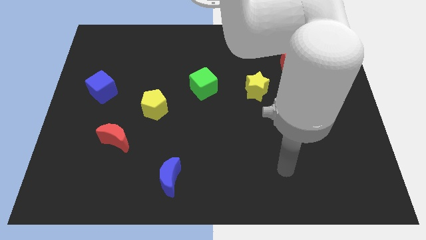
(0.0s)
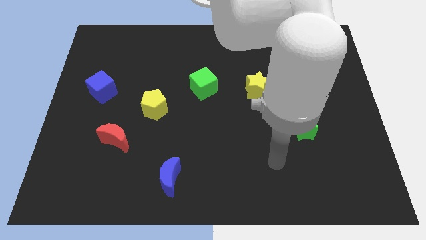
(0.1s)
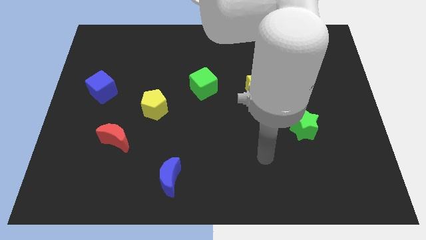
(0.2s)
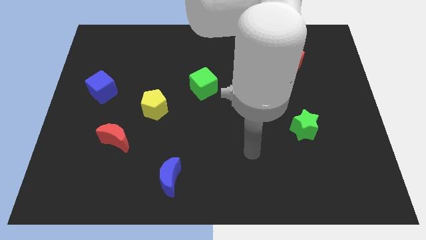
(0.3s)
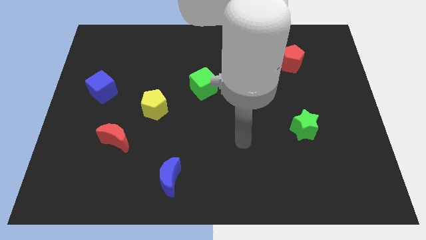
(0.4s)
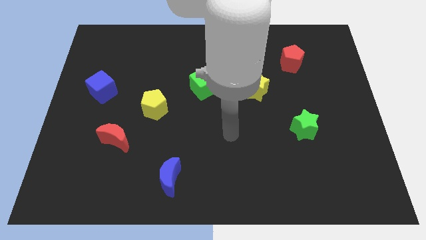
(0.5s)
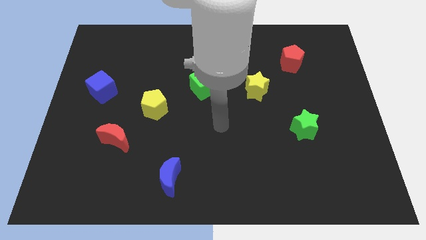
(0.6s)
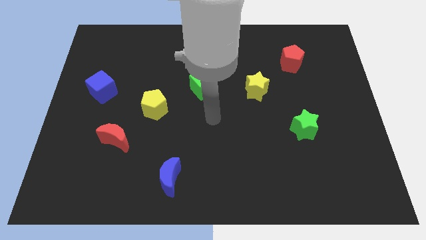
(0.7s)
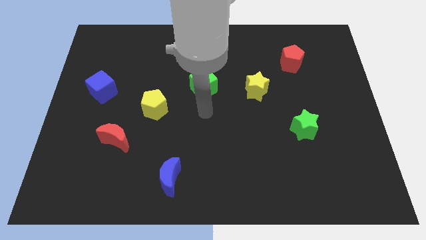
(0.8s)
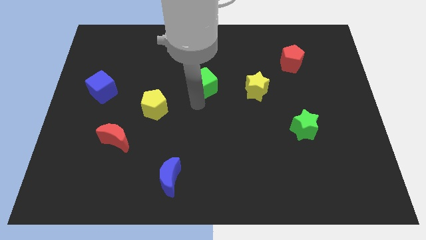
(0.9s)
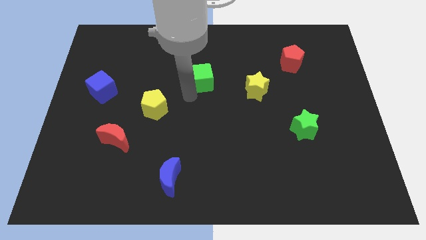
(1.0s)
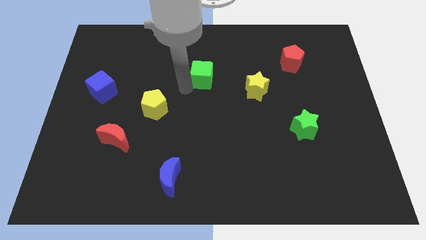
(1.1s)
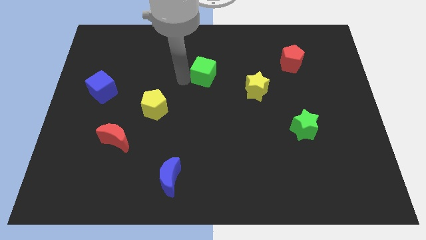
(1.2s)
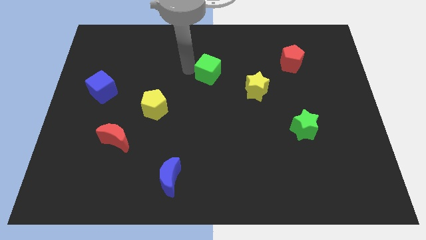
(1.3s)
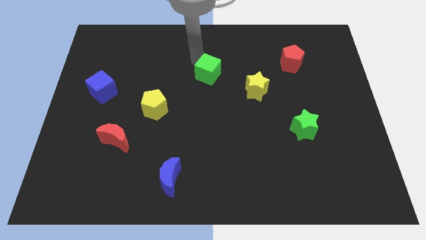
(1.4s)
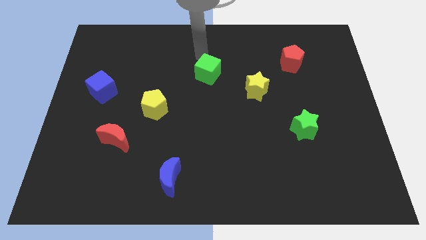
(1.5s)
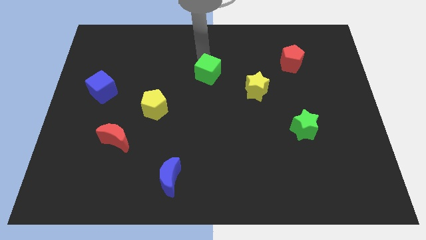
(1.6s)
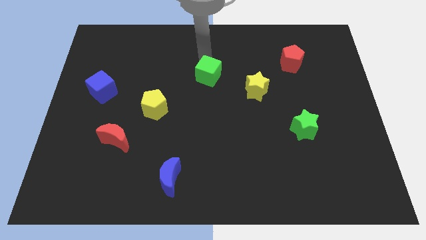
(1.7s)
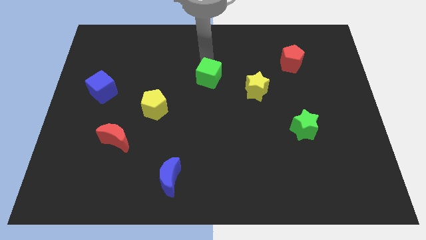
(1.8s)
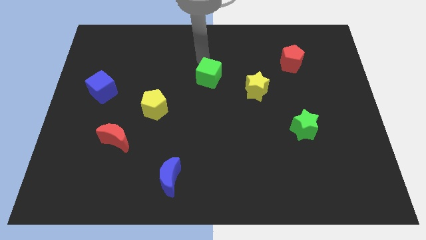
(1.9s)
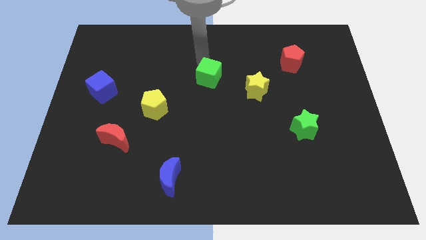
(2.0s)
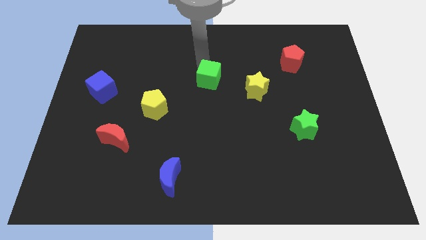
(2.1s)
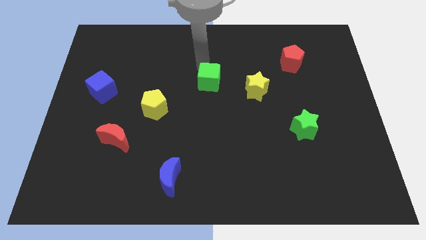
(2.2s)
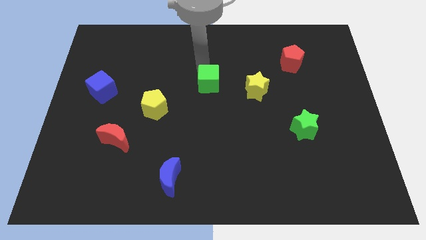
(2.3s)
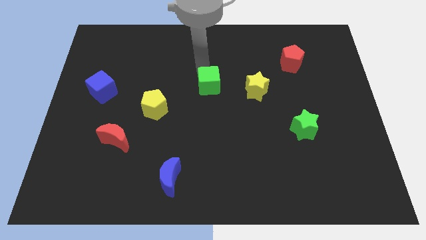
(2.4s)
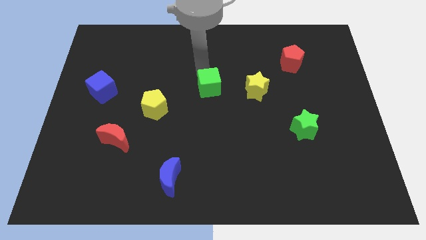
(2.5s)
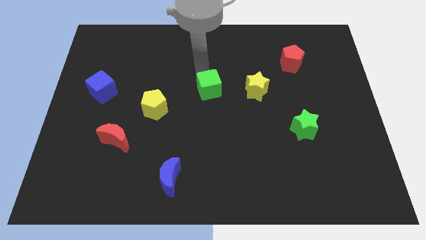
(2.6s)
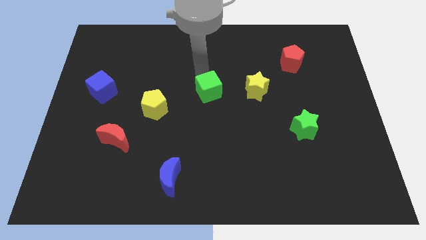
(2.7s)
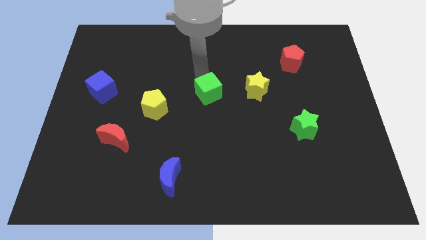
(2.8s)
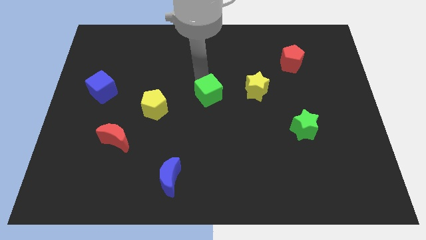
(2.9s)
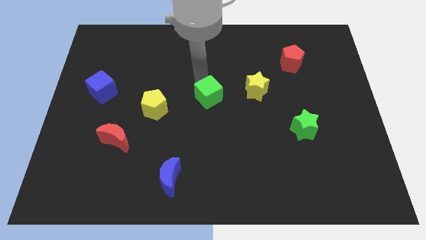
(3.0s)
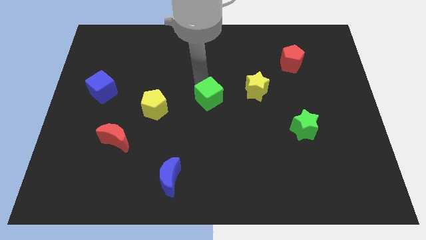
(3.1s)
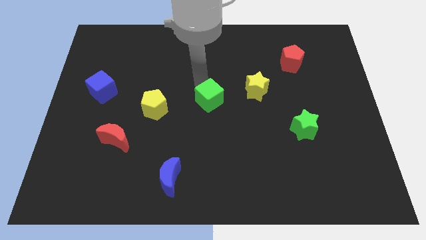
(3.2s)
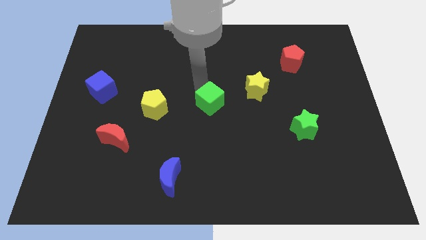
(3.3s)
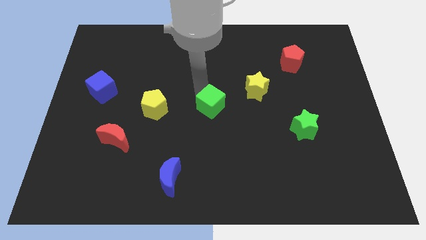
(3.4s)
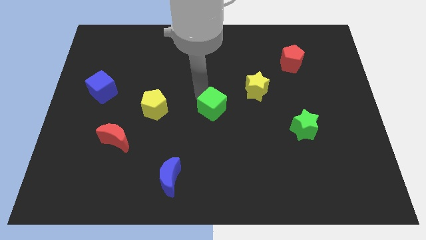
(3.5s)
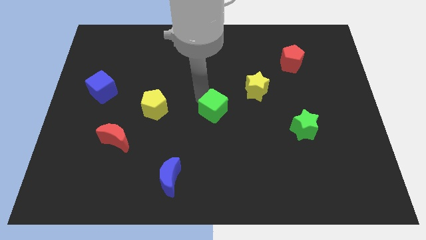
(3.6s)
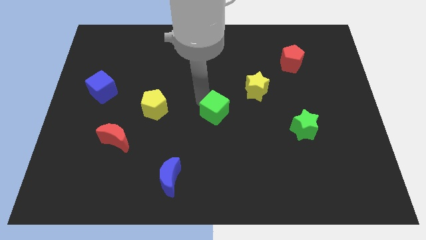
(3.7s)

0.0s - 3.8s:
move the green cube diagonally down and right a little

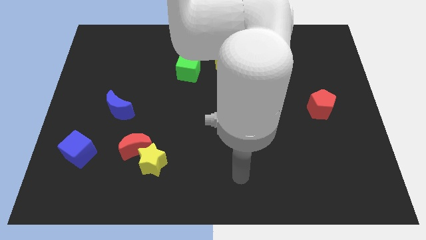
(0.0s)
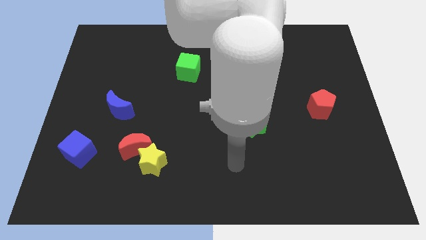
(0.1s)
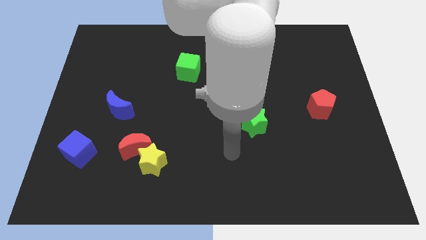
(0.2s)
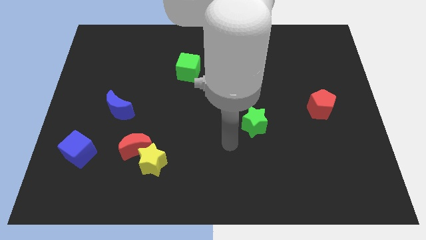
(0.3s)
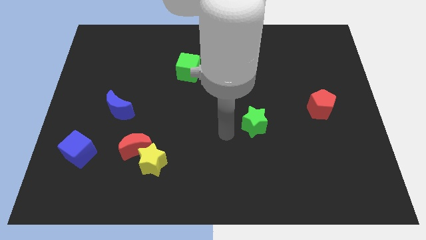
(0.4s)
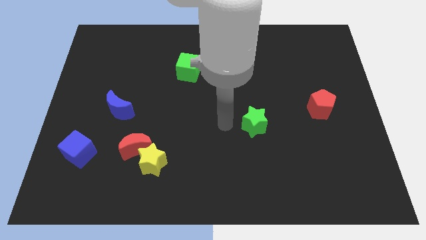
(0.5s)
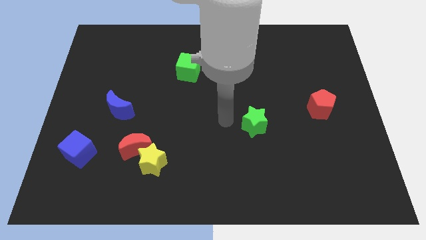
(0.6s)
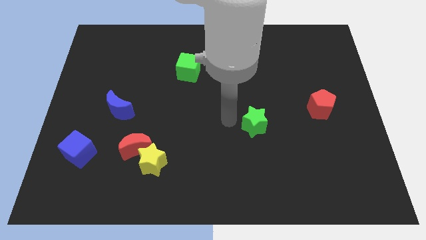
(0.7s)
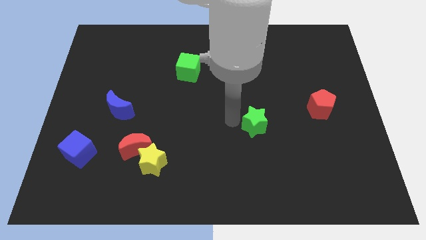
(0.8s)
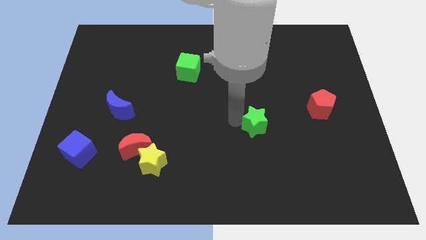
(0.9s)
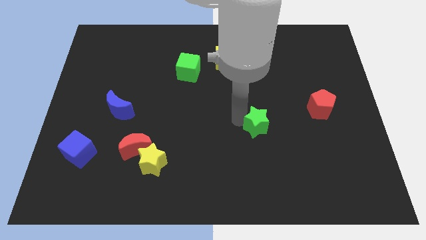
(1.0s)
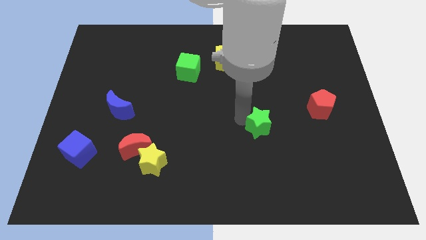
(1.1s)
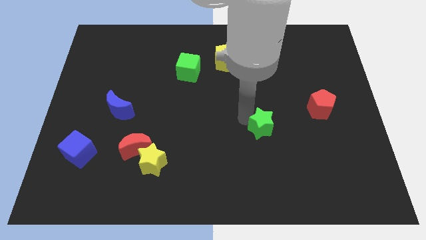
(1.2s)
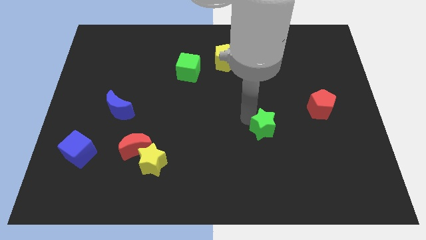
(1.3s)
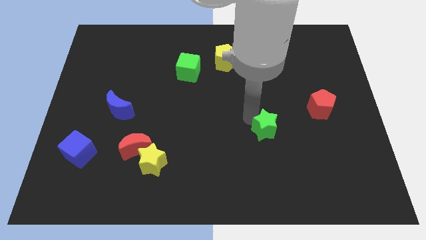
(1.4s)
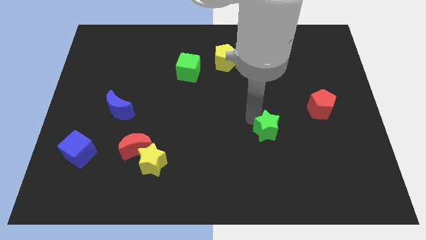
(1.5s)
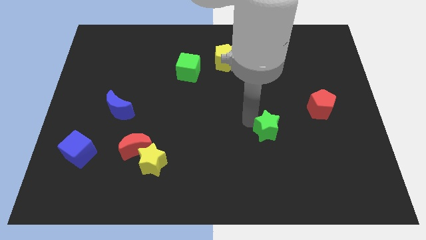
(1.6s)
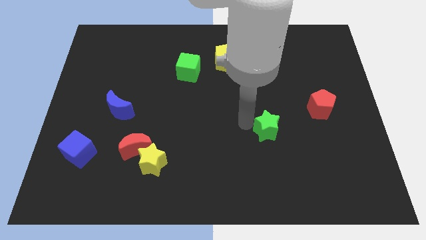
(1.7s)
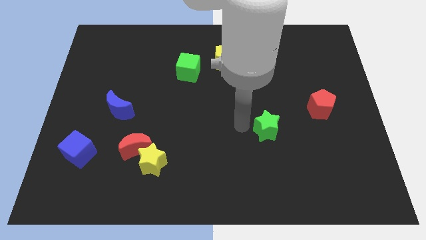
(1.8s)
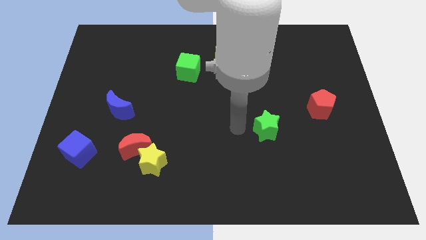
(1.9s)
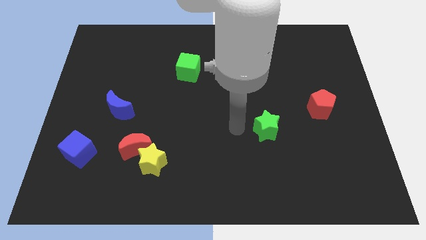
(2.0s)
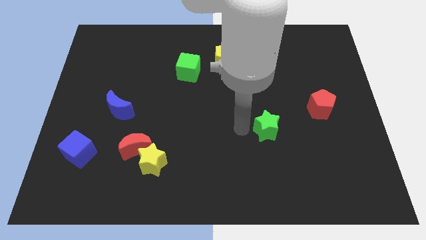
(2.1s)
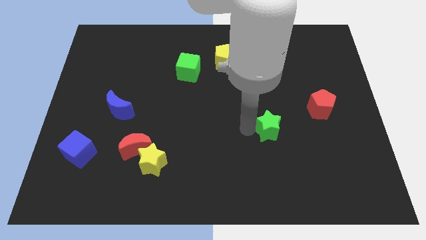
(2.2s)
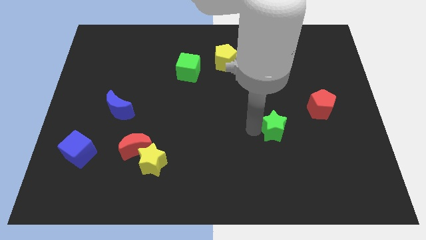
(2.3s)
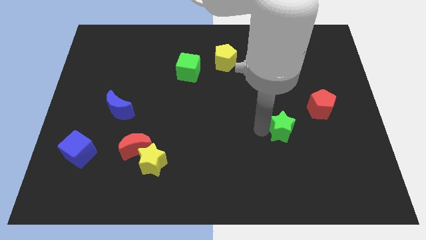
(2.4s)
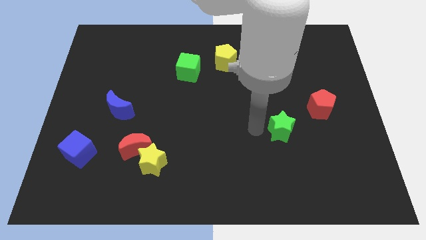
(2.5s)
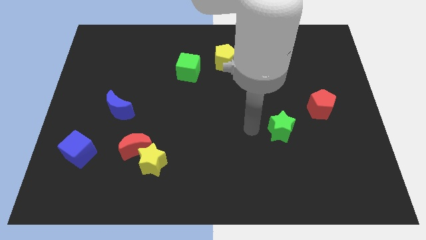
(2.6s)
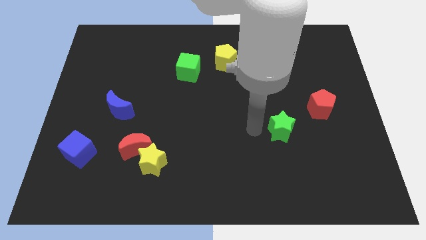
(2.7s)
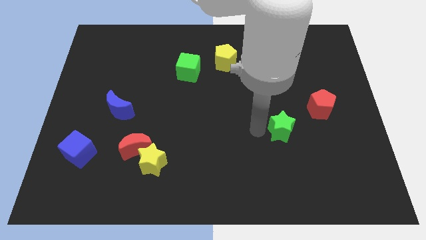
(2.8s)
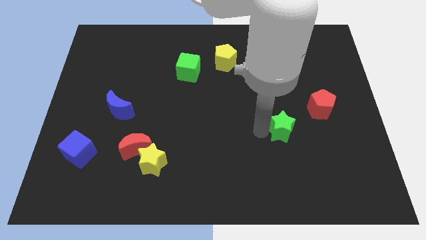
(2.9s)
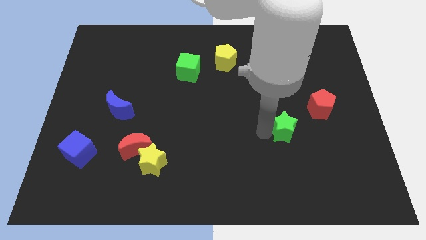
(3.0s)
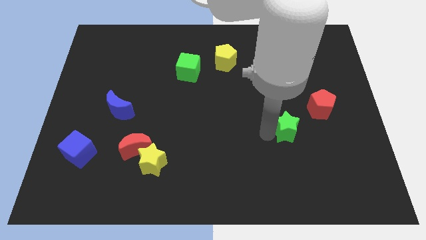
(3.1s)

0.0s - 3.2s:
slightly slide the green star to the right

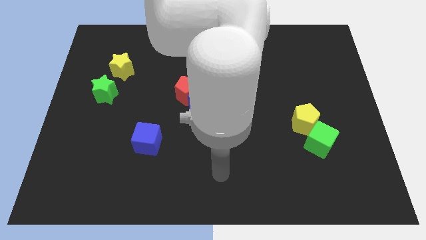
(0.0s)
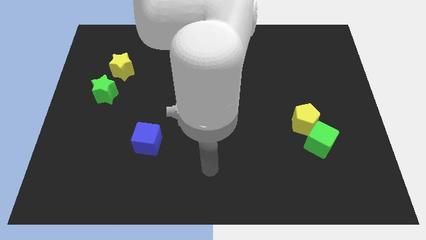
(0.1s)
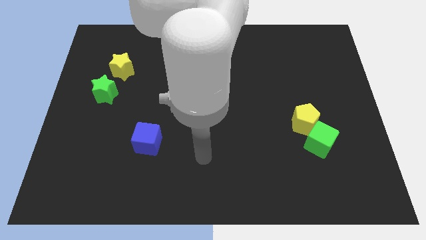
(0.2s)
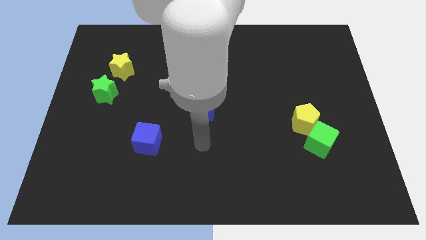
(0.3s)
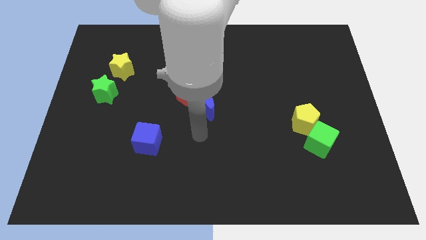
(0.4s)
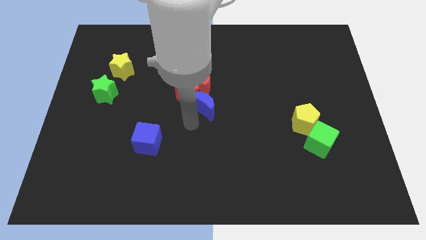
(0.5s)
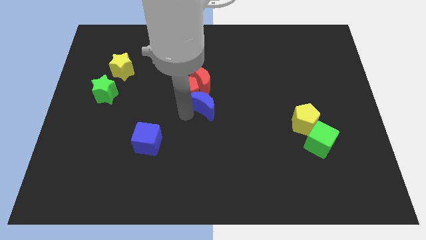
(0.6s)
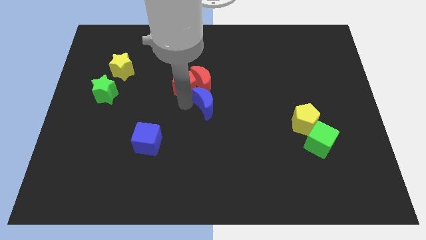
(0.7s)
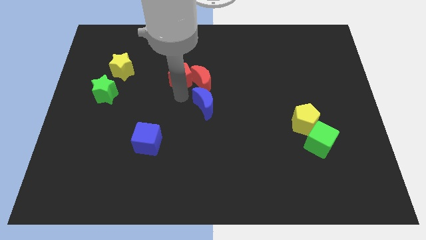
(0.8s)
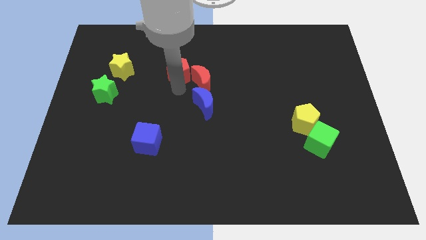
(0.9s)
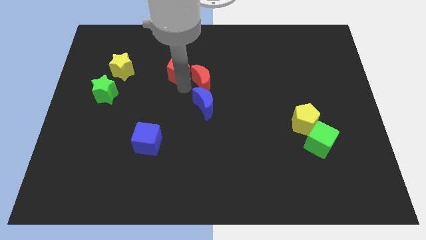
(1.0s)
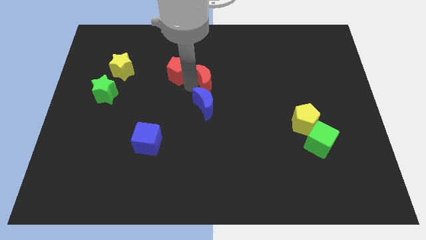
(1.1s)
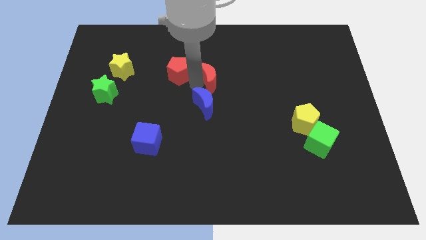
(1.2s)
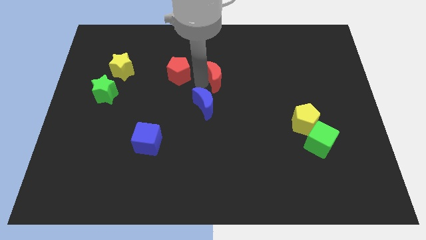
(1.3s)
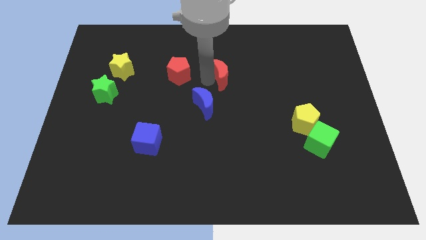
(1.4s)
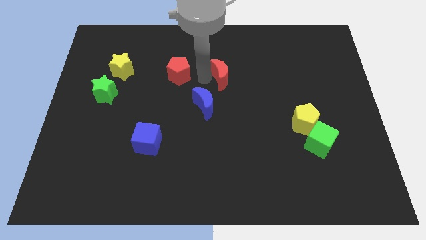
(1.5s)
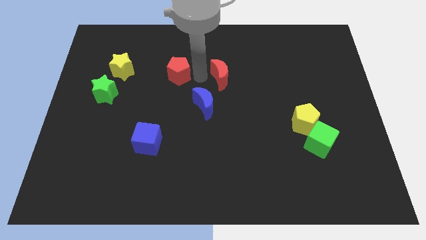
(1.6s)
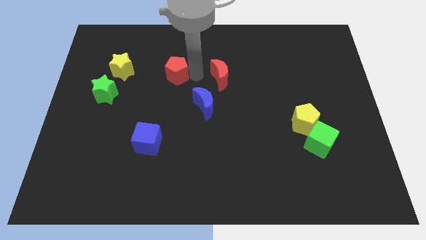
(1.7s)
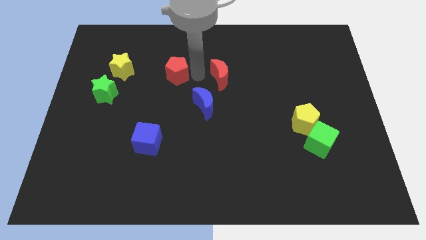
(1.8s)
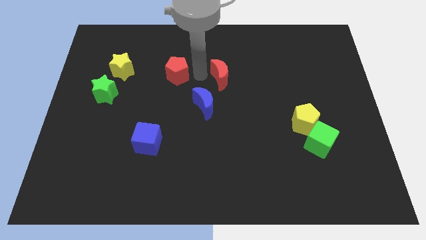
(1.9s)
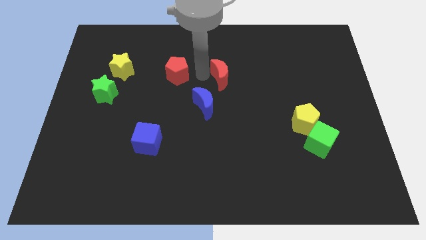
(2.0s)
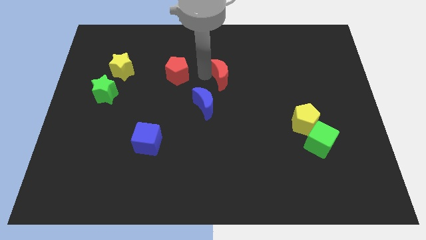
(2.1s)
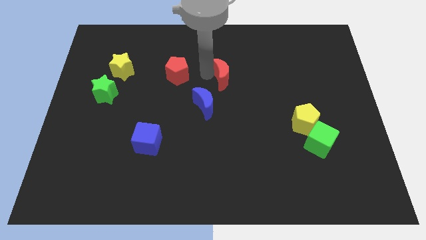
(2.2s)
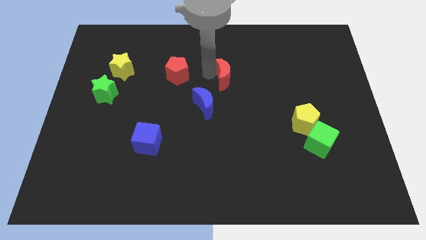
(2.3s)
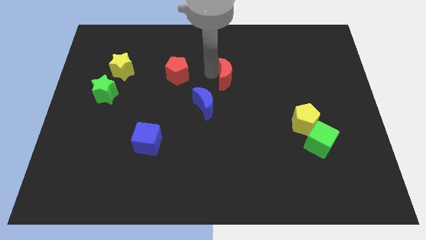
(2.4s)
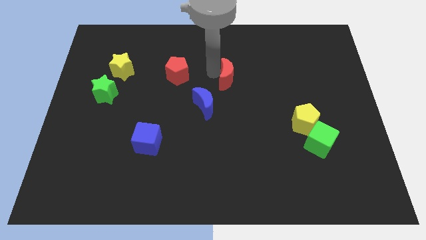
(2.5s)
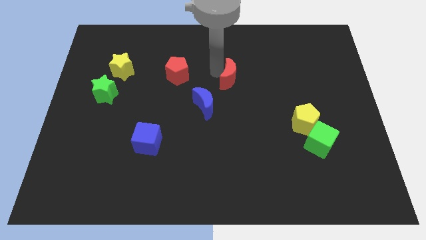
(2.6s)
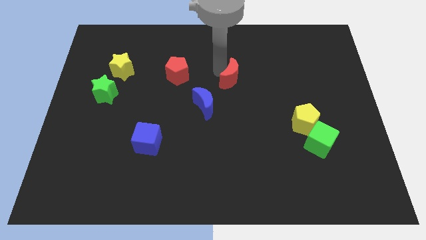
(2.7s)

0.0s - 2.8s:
push the red moon slightly to the right
